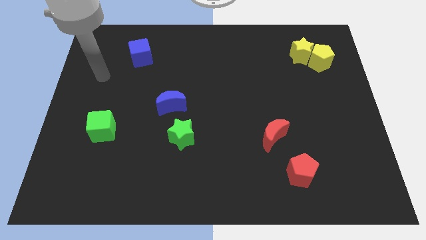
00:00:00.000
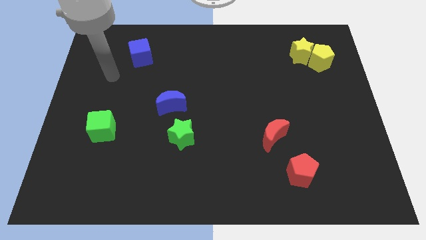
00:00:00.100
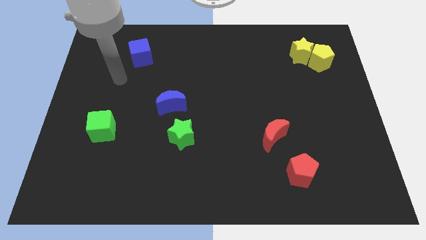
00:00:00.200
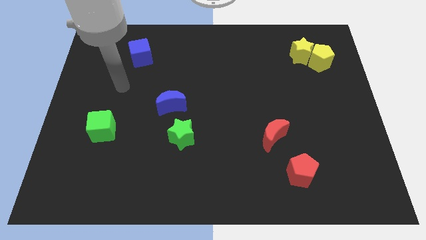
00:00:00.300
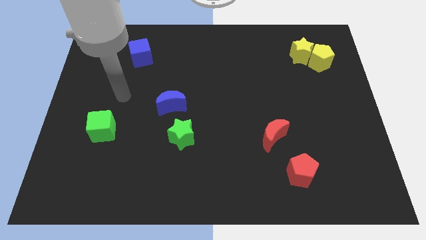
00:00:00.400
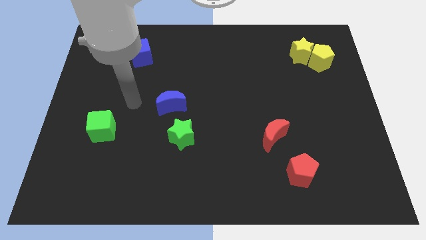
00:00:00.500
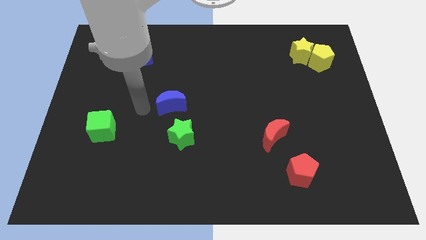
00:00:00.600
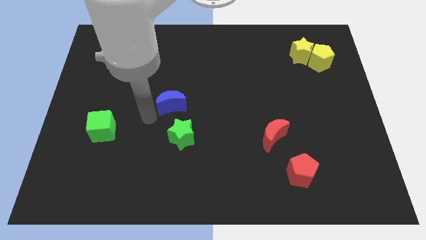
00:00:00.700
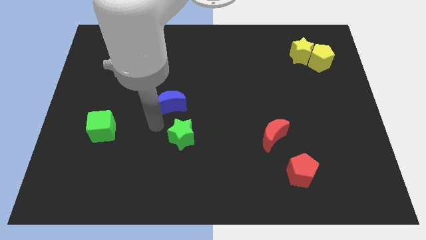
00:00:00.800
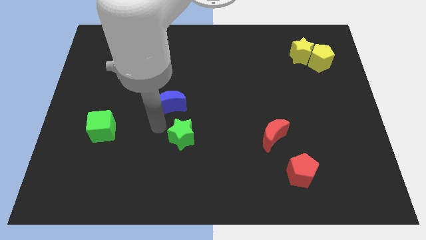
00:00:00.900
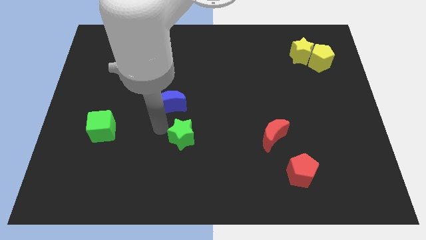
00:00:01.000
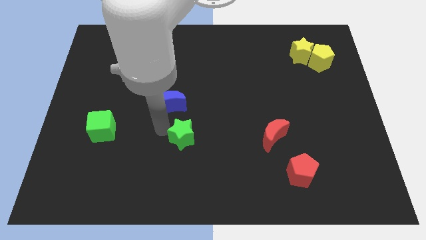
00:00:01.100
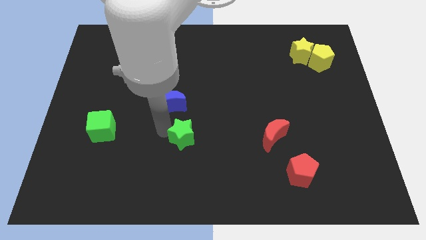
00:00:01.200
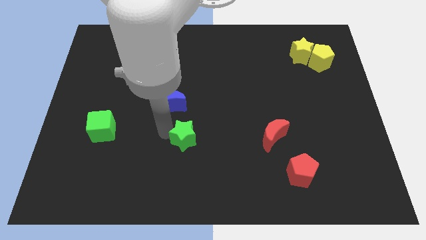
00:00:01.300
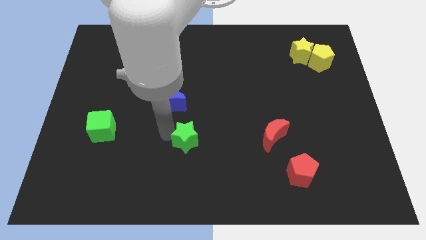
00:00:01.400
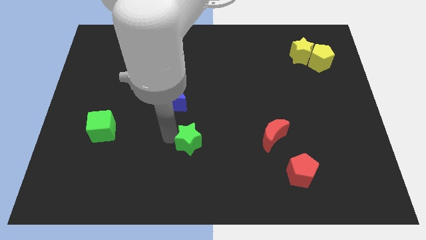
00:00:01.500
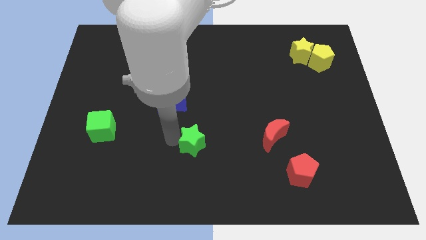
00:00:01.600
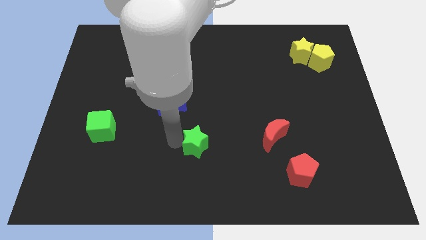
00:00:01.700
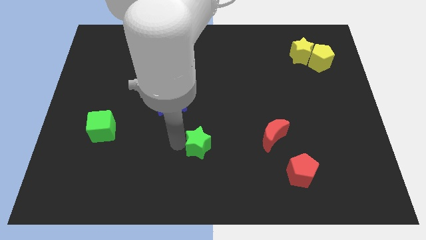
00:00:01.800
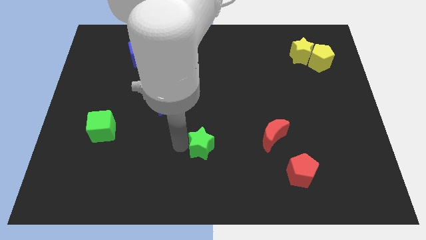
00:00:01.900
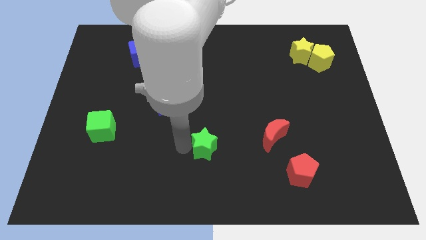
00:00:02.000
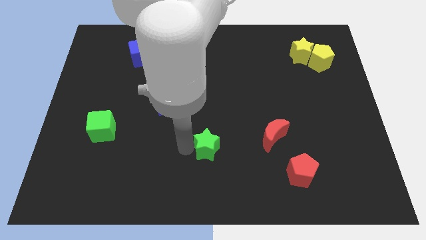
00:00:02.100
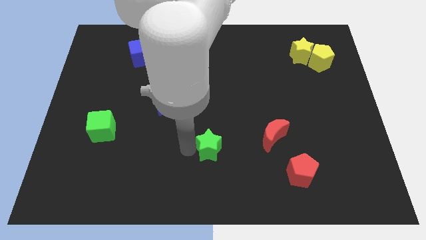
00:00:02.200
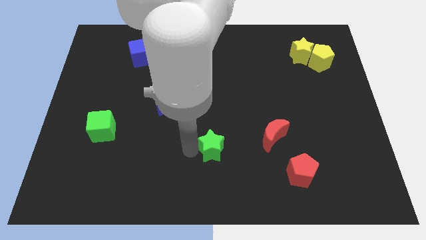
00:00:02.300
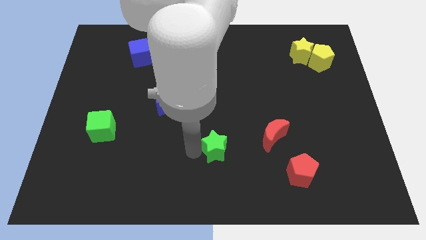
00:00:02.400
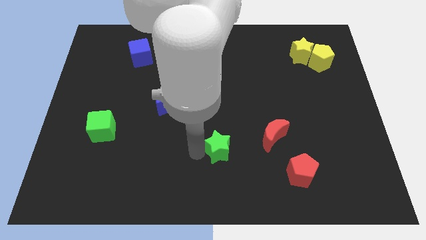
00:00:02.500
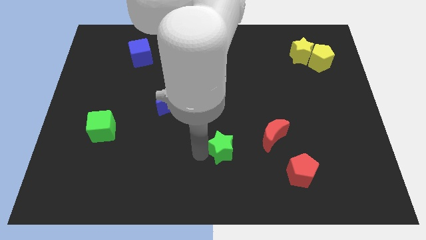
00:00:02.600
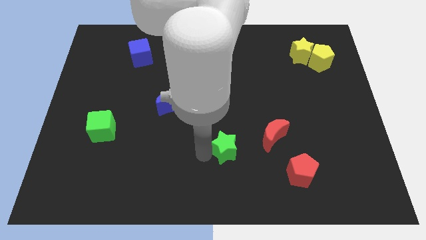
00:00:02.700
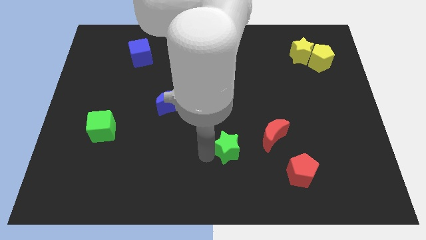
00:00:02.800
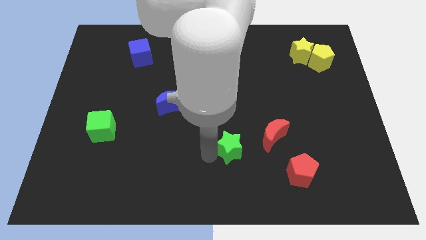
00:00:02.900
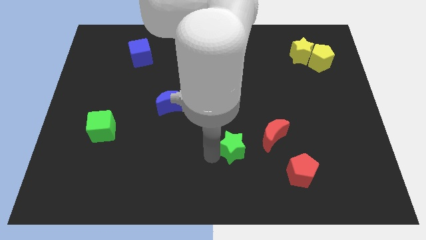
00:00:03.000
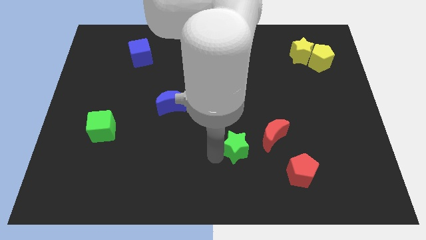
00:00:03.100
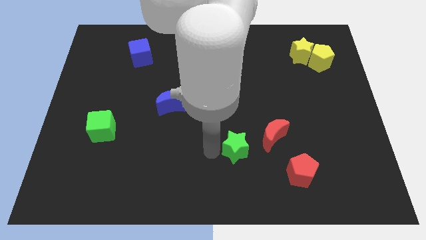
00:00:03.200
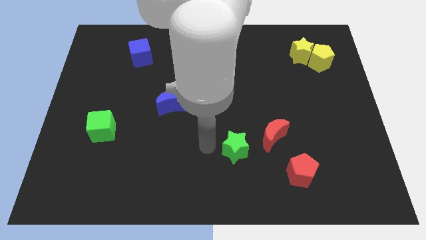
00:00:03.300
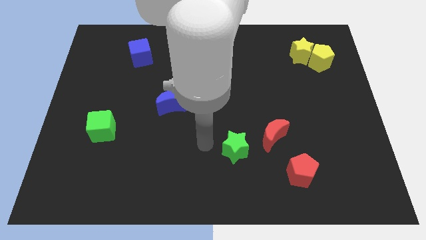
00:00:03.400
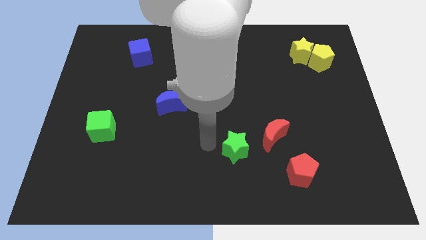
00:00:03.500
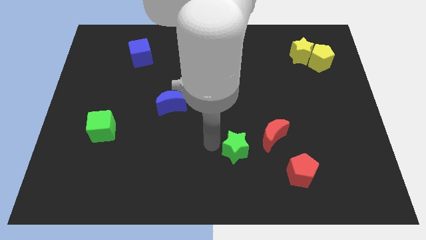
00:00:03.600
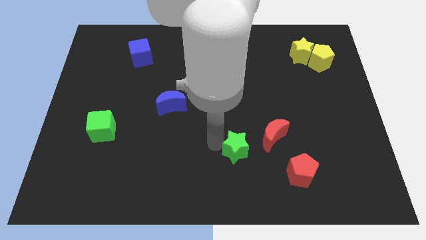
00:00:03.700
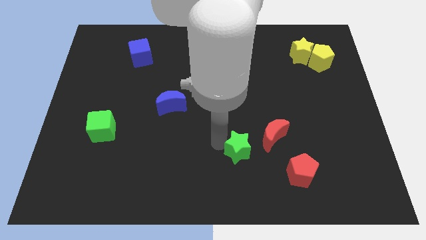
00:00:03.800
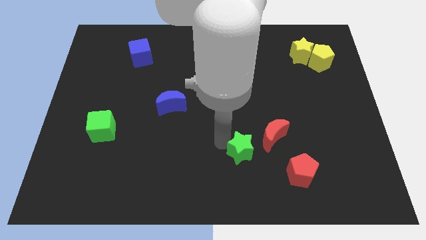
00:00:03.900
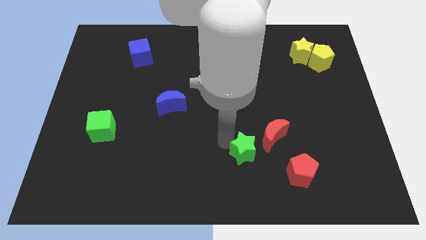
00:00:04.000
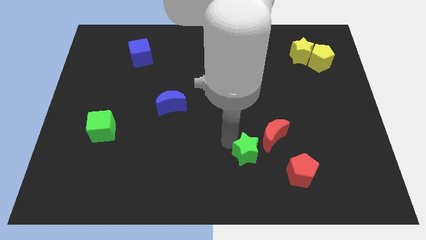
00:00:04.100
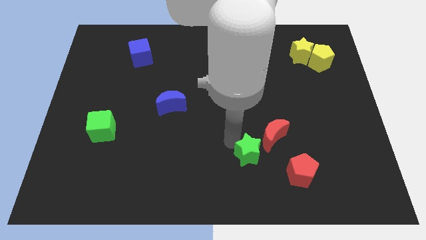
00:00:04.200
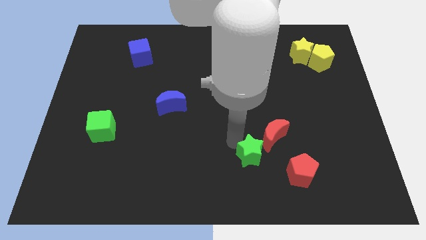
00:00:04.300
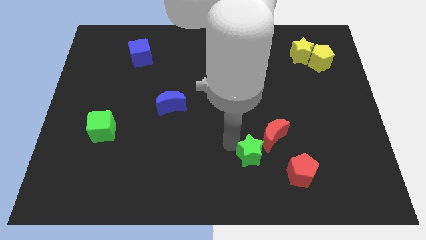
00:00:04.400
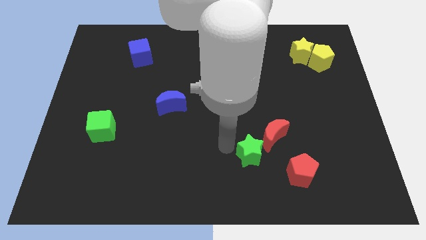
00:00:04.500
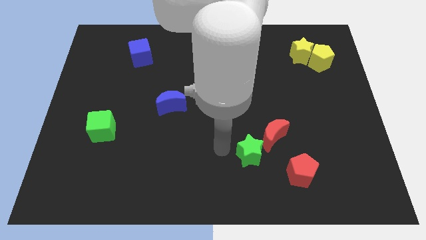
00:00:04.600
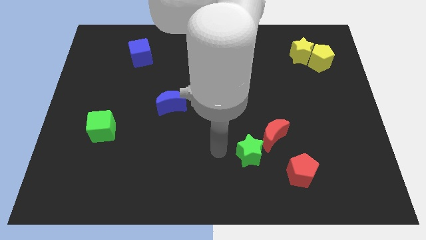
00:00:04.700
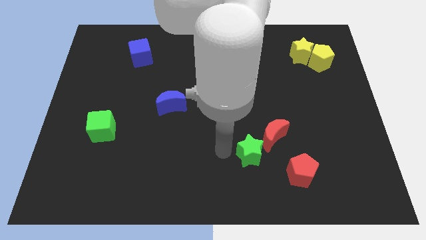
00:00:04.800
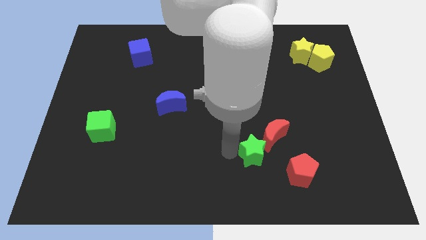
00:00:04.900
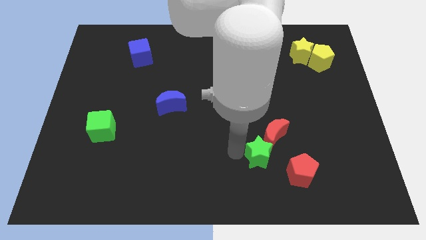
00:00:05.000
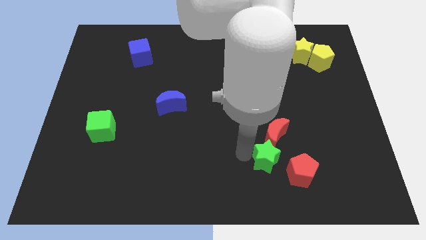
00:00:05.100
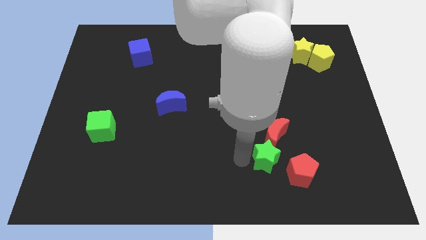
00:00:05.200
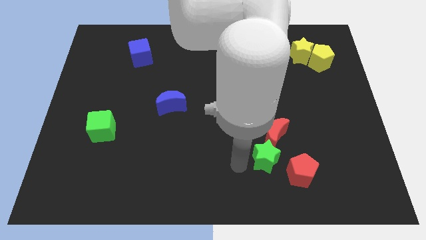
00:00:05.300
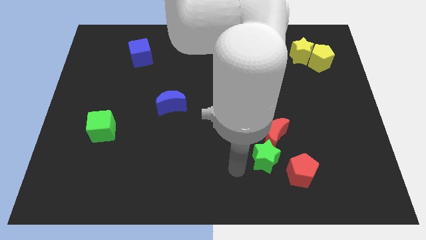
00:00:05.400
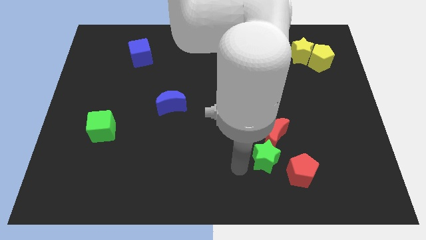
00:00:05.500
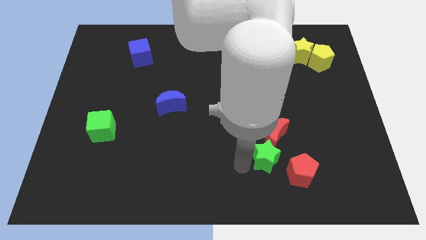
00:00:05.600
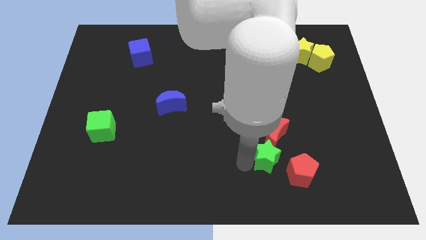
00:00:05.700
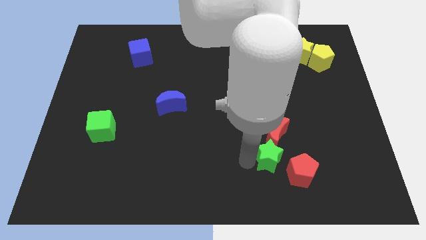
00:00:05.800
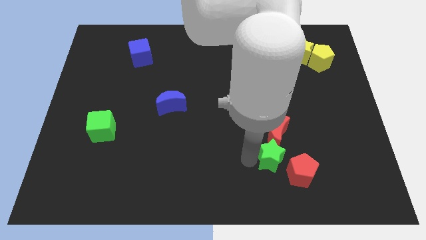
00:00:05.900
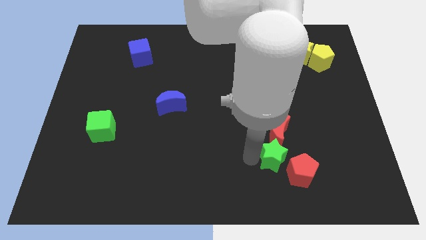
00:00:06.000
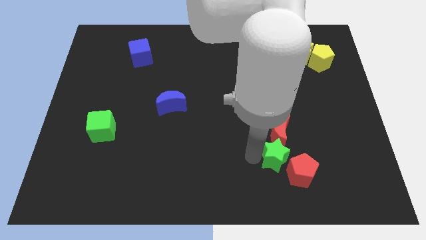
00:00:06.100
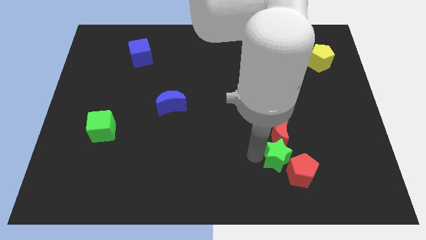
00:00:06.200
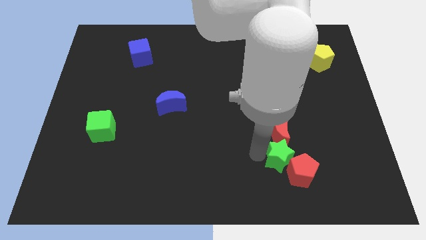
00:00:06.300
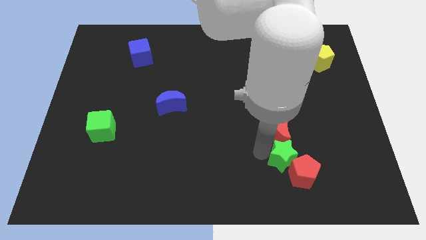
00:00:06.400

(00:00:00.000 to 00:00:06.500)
slide the green star to the right

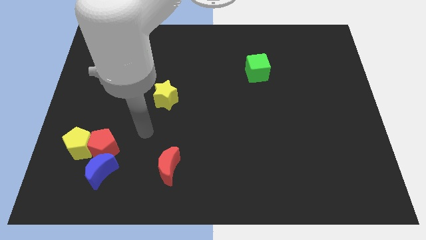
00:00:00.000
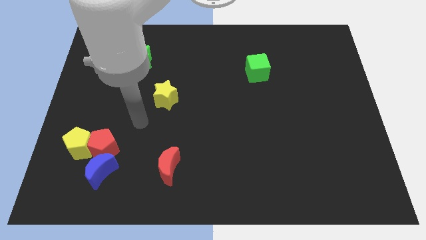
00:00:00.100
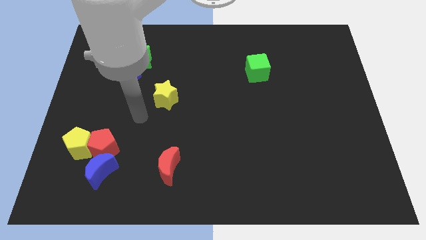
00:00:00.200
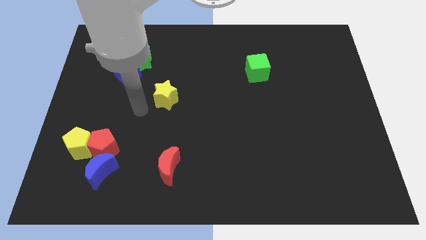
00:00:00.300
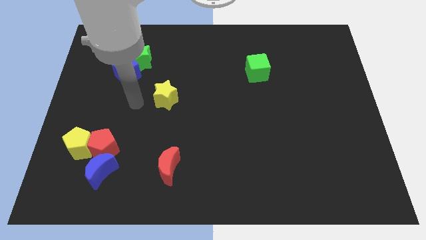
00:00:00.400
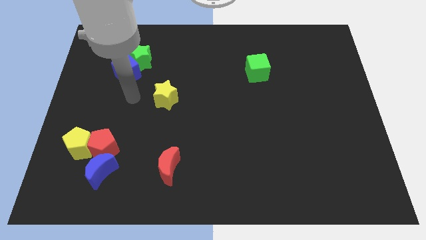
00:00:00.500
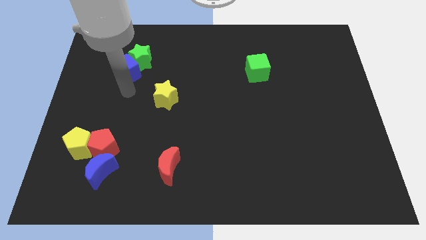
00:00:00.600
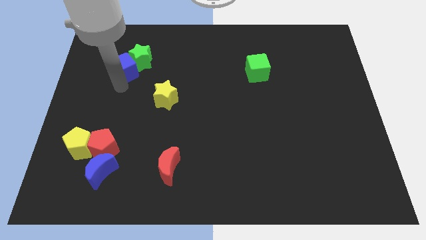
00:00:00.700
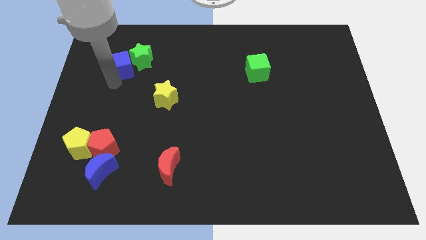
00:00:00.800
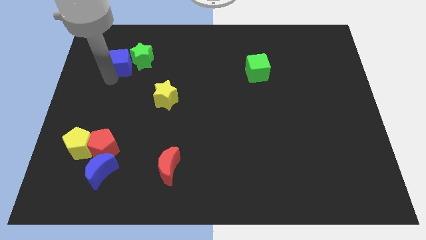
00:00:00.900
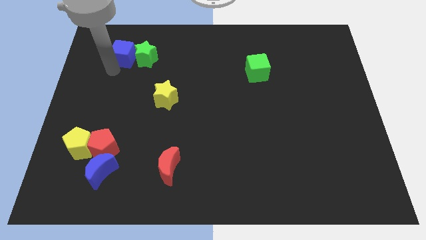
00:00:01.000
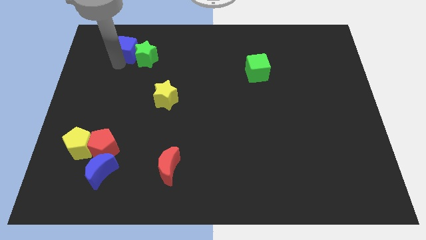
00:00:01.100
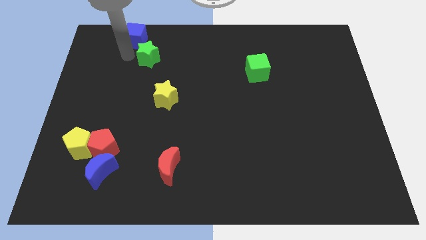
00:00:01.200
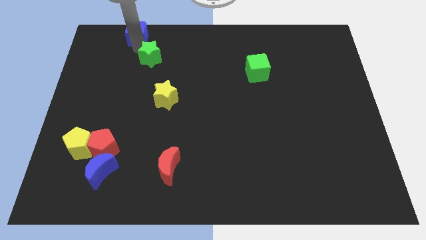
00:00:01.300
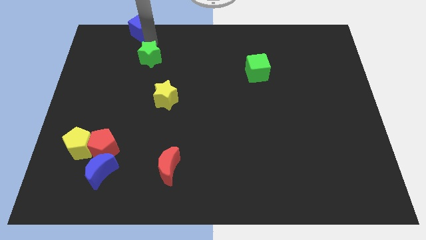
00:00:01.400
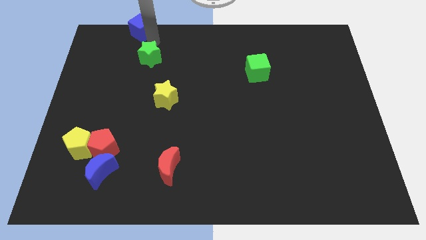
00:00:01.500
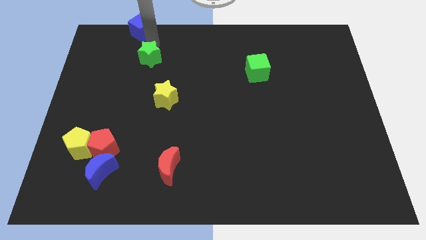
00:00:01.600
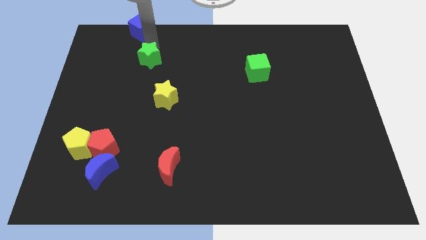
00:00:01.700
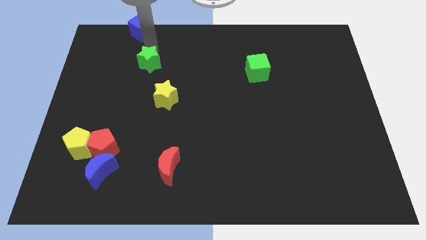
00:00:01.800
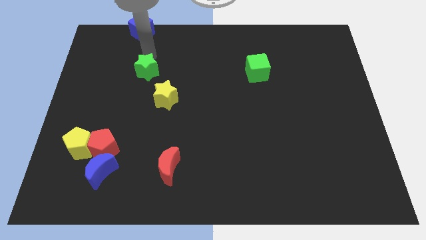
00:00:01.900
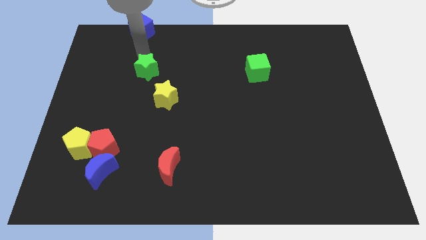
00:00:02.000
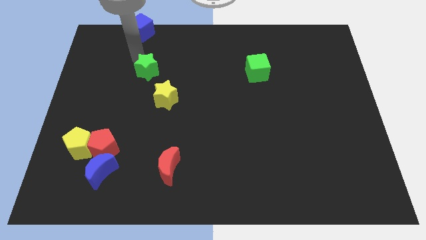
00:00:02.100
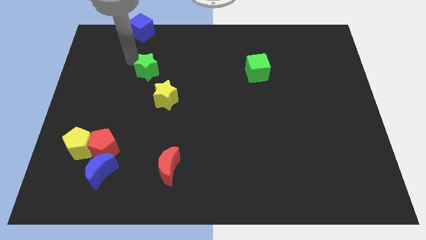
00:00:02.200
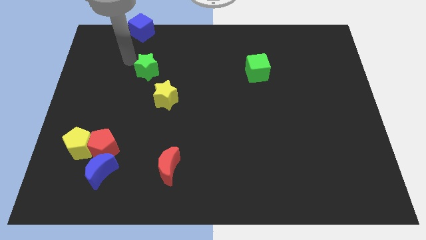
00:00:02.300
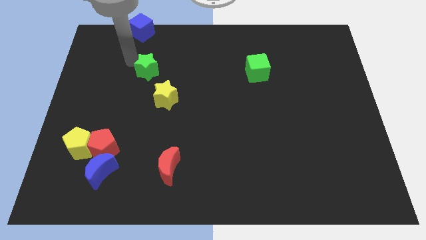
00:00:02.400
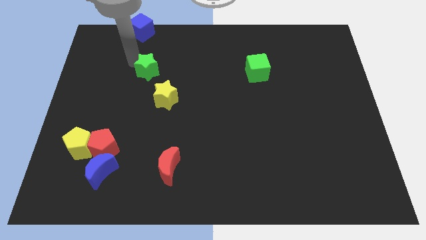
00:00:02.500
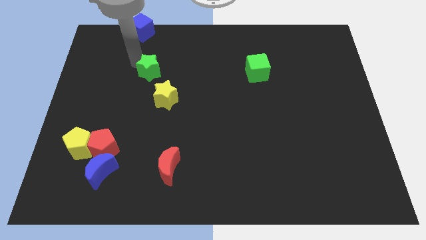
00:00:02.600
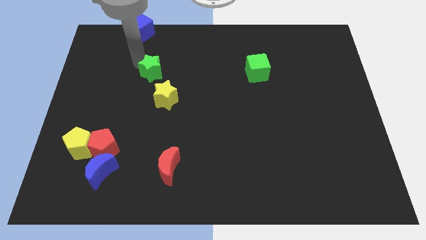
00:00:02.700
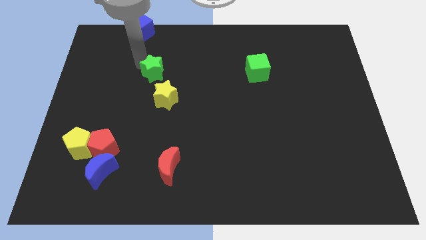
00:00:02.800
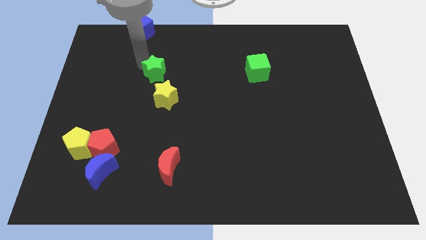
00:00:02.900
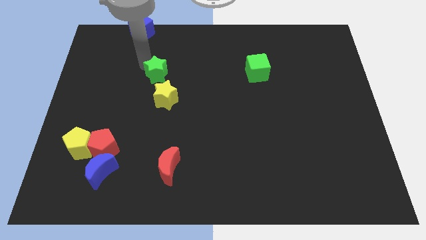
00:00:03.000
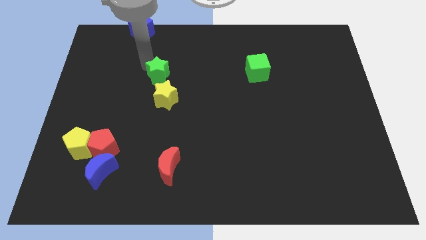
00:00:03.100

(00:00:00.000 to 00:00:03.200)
slide the green star somewhat downwards and then right
